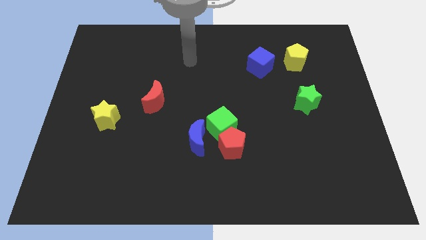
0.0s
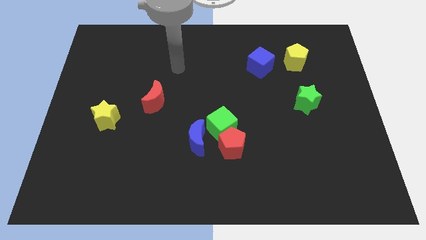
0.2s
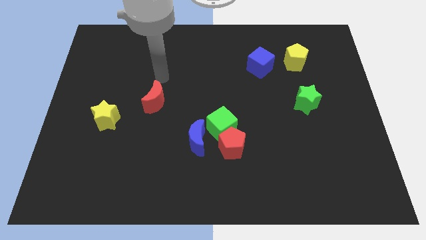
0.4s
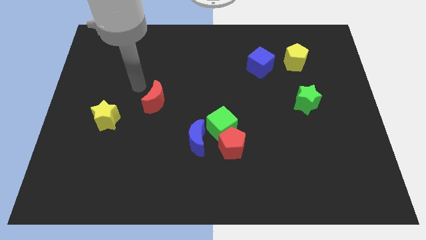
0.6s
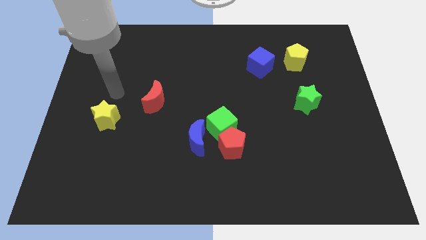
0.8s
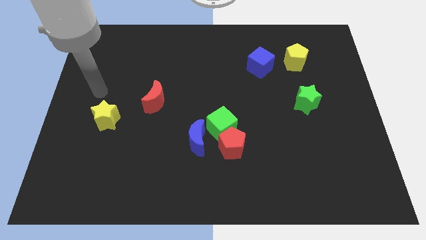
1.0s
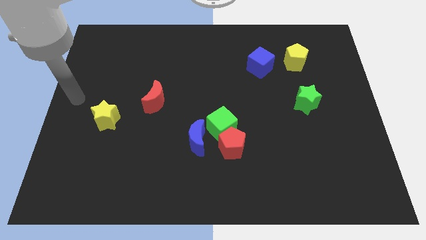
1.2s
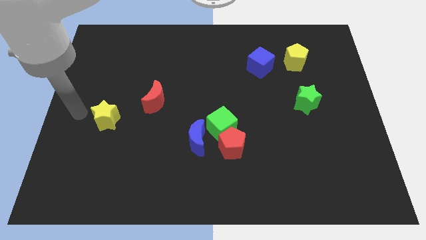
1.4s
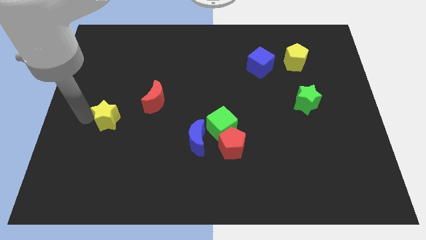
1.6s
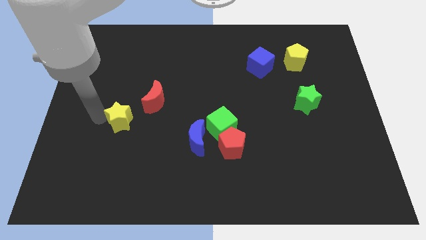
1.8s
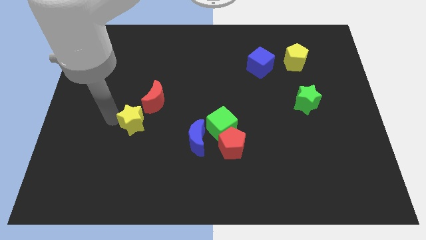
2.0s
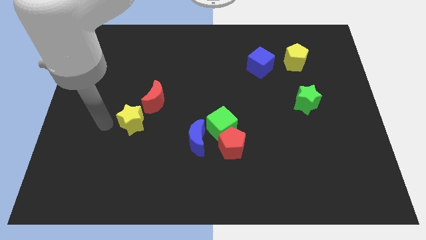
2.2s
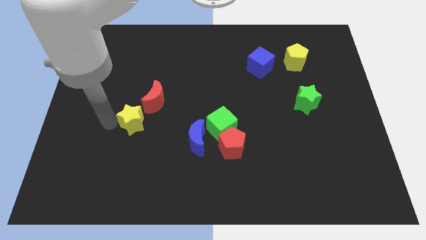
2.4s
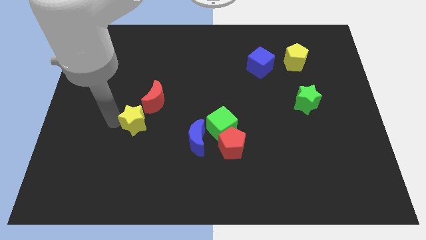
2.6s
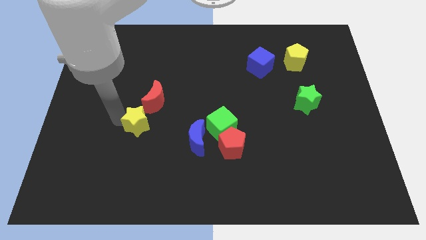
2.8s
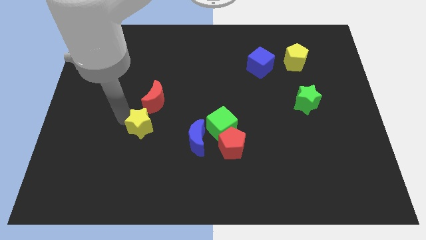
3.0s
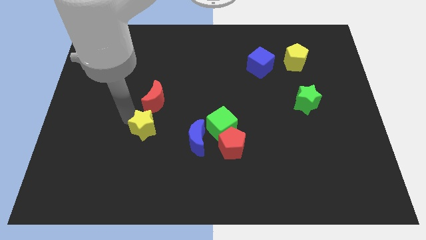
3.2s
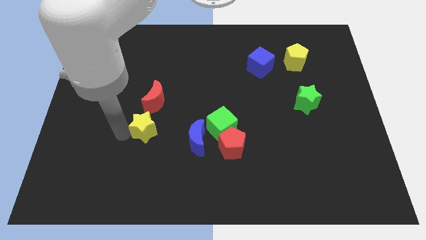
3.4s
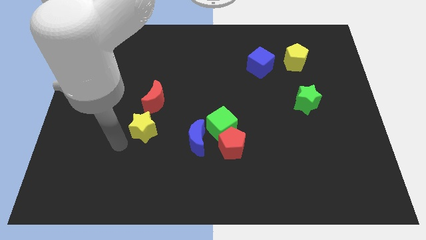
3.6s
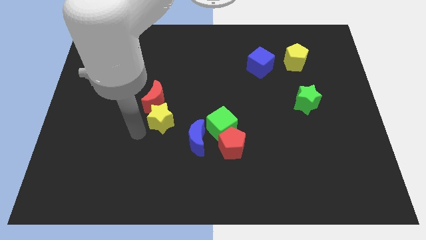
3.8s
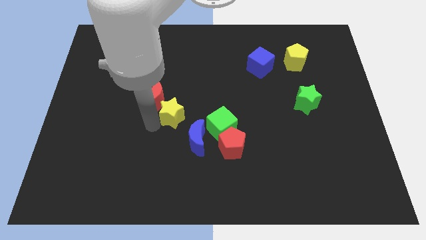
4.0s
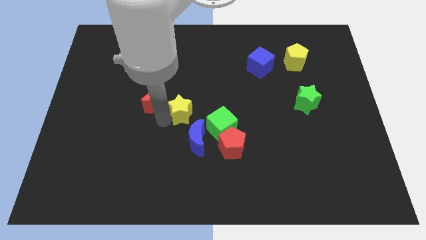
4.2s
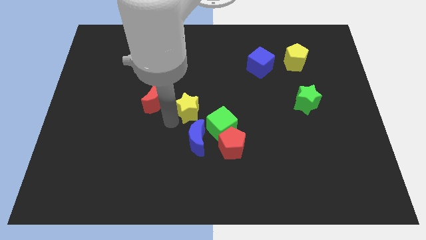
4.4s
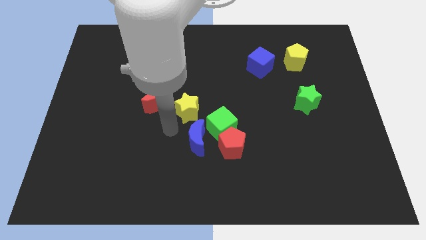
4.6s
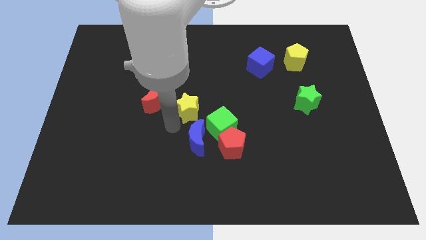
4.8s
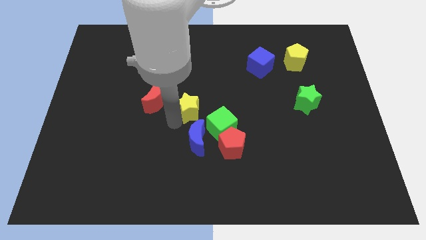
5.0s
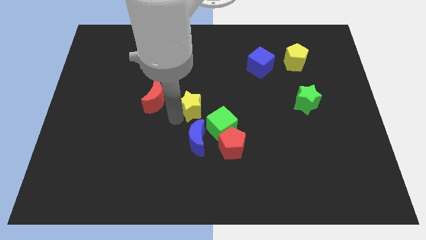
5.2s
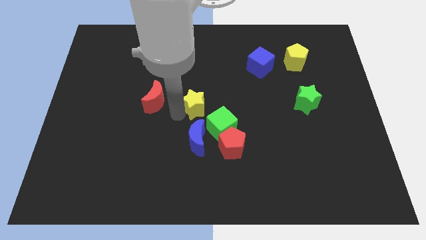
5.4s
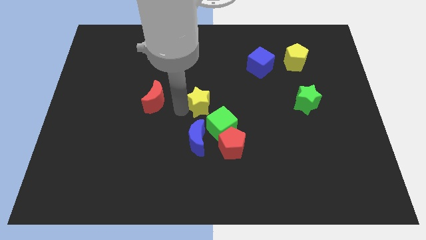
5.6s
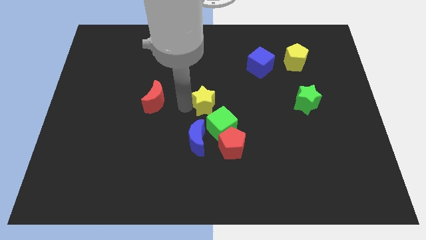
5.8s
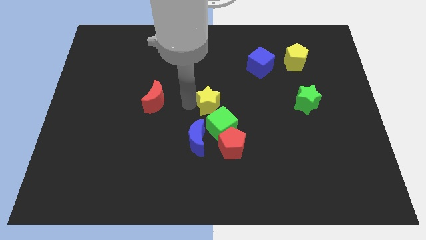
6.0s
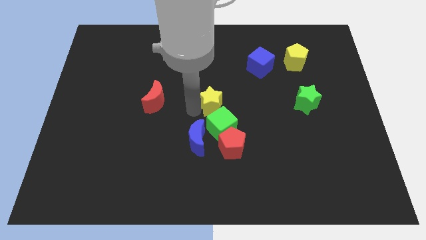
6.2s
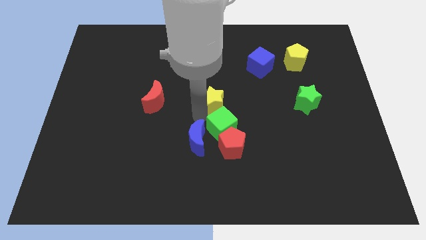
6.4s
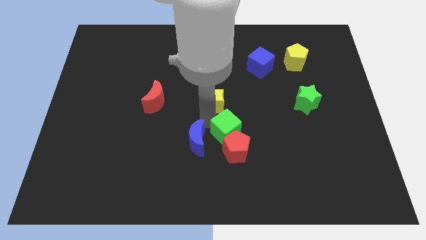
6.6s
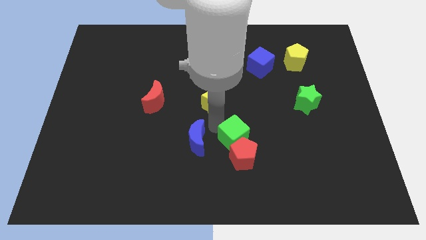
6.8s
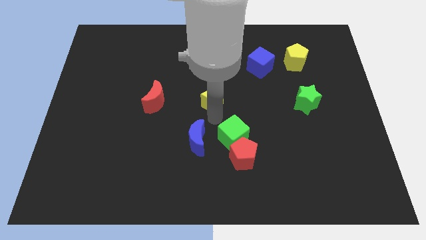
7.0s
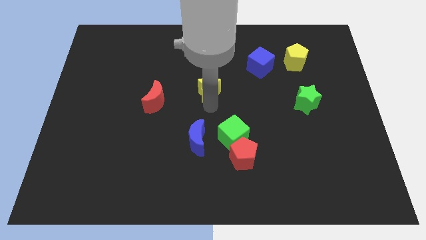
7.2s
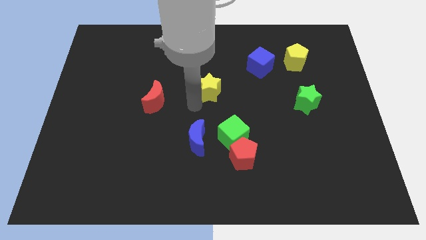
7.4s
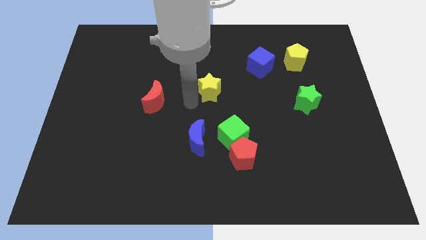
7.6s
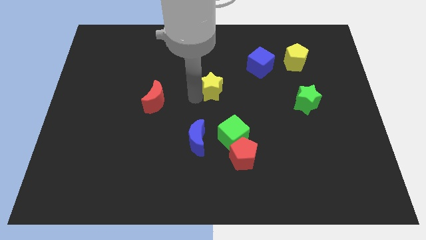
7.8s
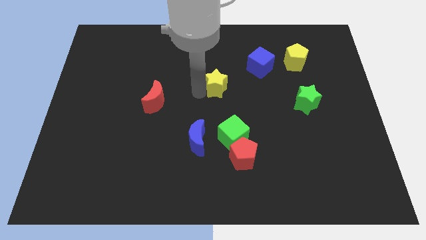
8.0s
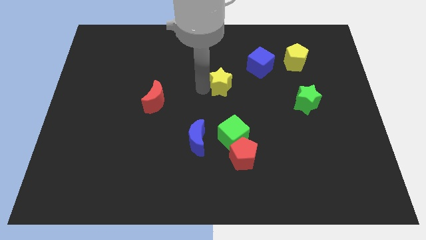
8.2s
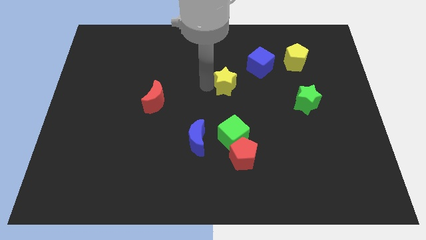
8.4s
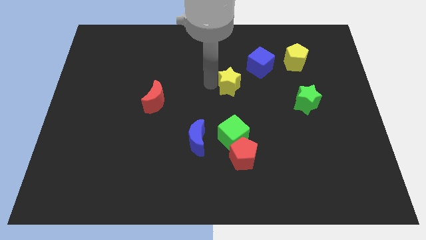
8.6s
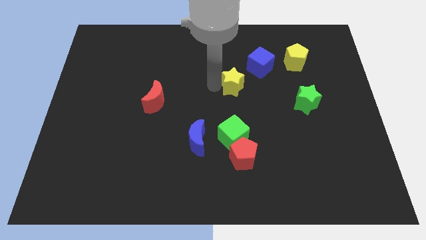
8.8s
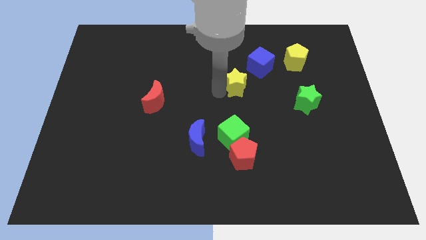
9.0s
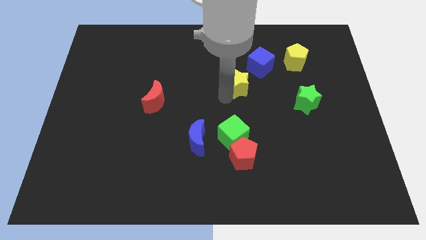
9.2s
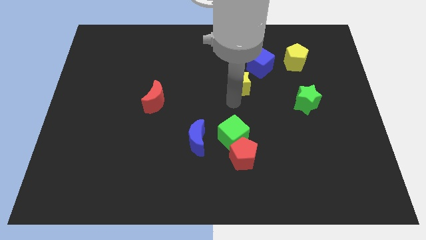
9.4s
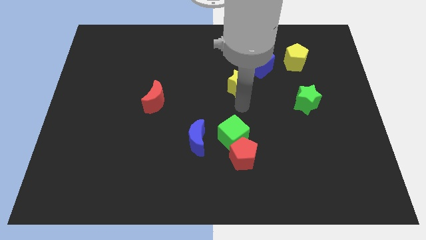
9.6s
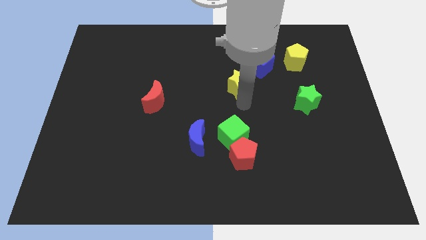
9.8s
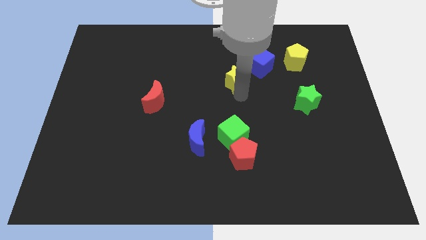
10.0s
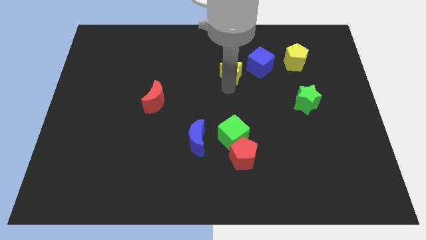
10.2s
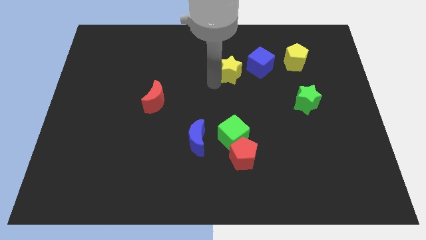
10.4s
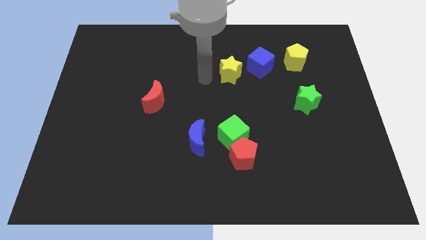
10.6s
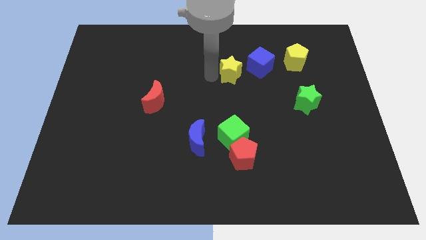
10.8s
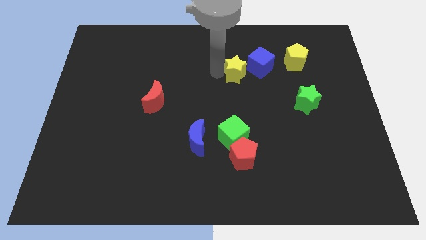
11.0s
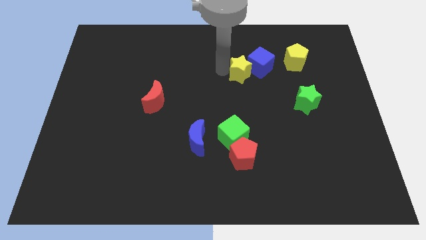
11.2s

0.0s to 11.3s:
put the yellow star to the blue cube

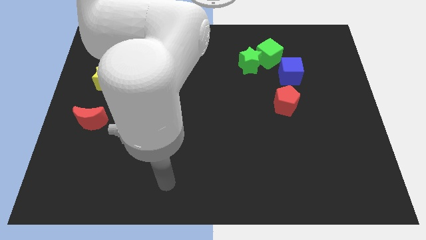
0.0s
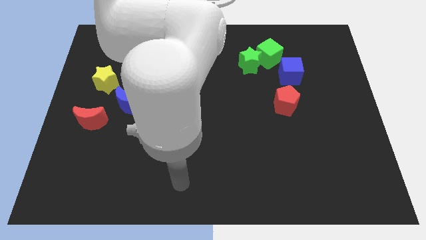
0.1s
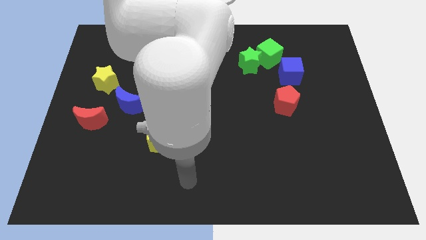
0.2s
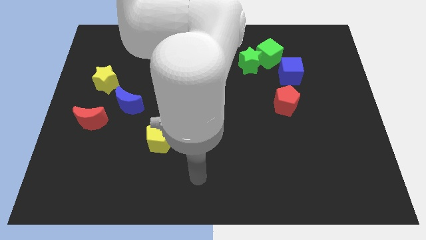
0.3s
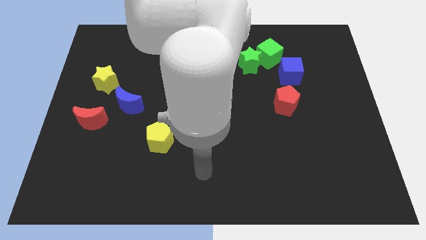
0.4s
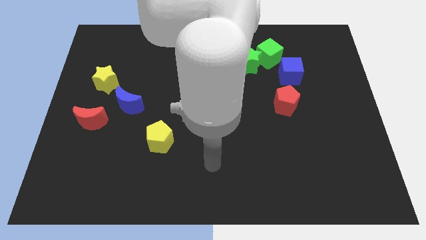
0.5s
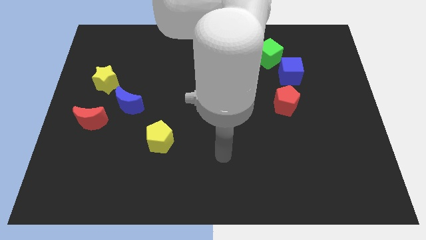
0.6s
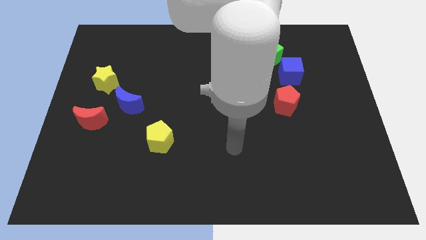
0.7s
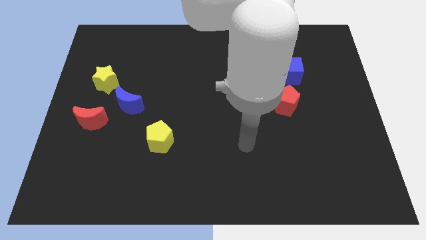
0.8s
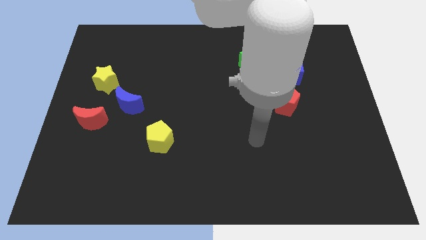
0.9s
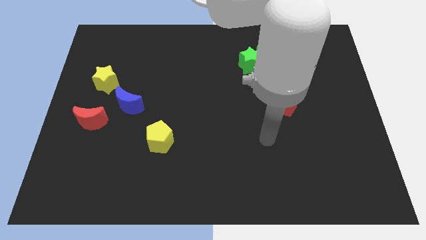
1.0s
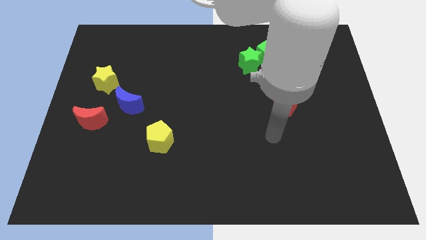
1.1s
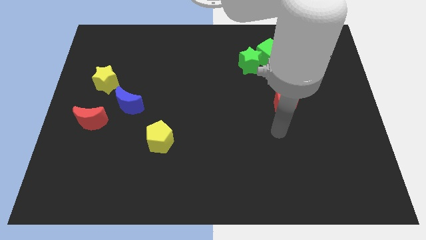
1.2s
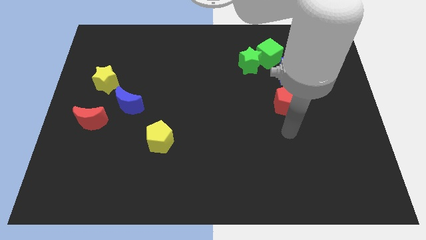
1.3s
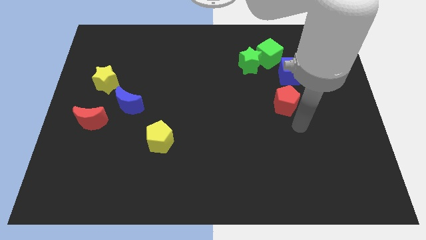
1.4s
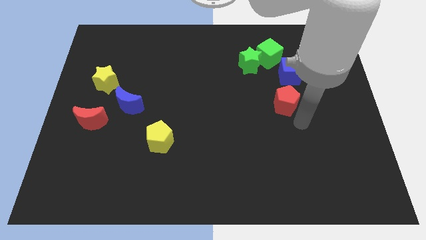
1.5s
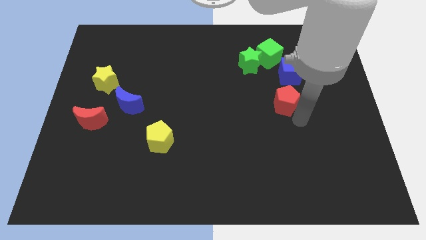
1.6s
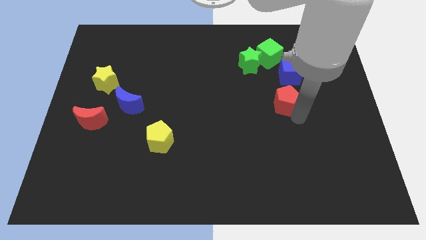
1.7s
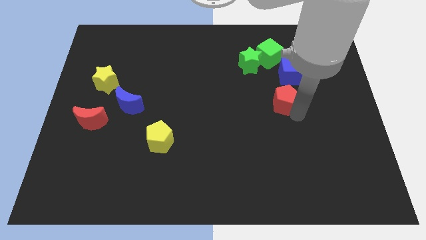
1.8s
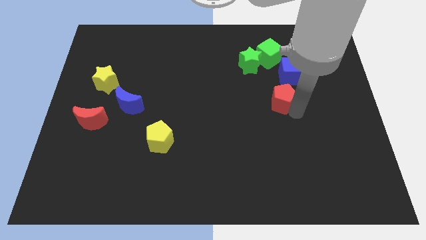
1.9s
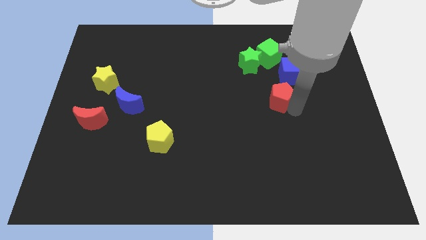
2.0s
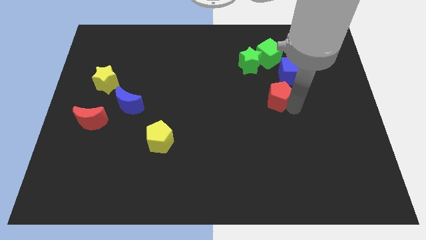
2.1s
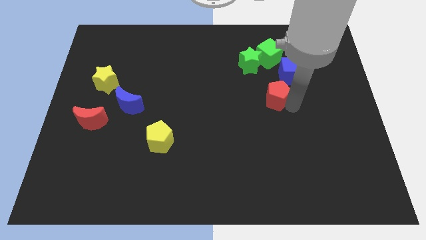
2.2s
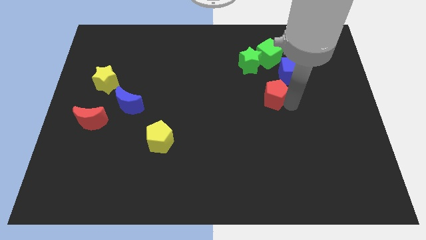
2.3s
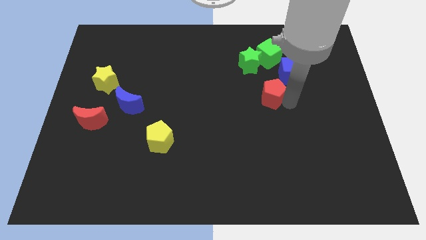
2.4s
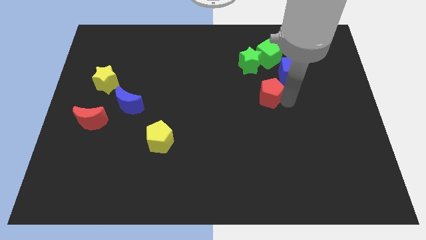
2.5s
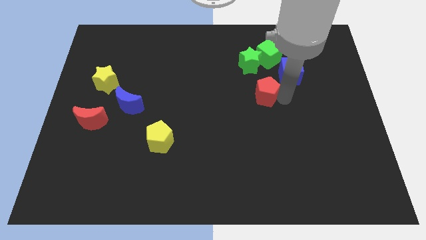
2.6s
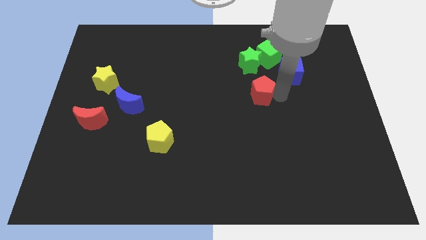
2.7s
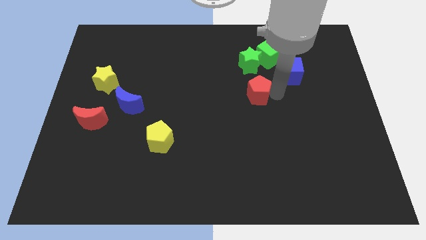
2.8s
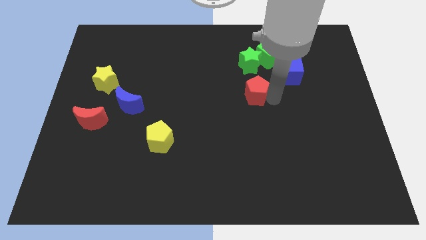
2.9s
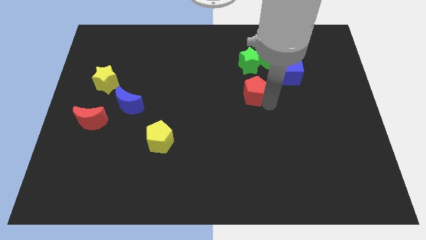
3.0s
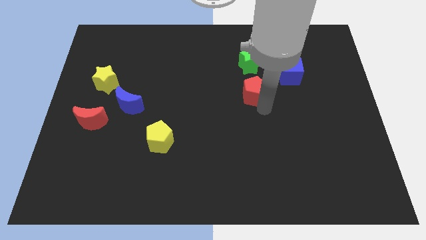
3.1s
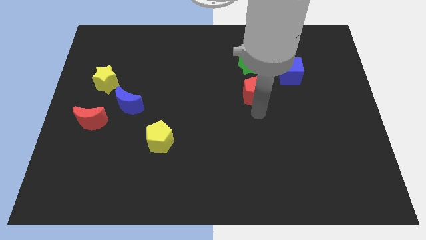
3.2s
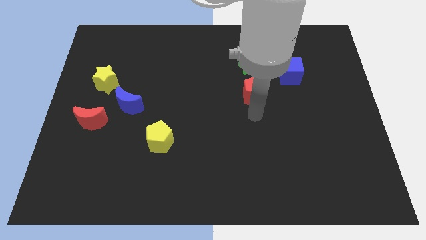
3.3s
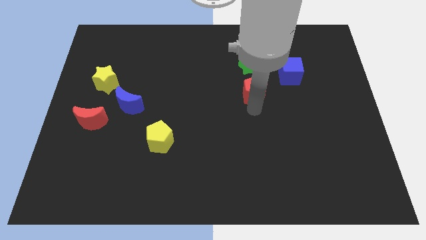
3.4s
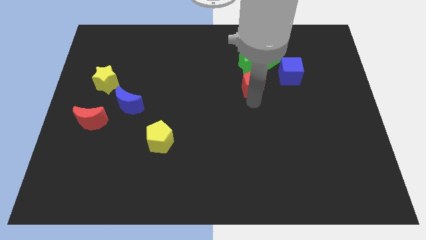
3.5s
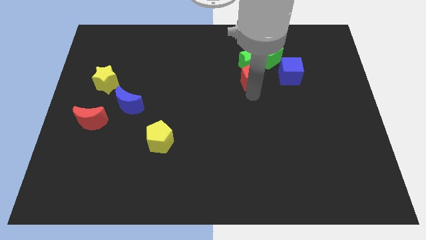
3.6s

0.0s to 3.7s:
push the red pentagon close to the green star
